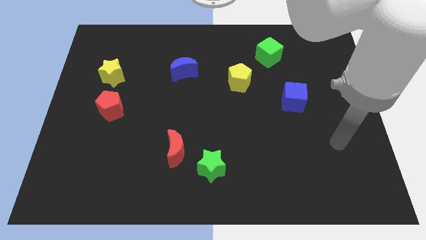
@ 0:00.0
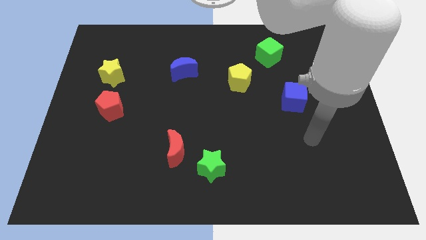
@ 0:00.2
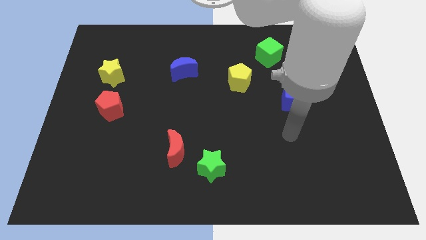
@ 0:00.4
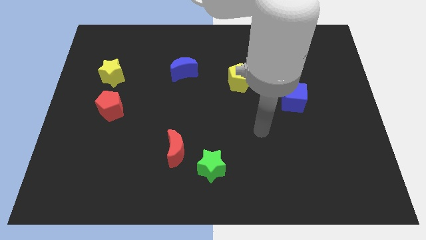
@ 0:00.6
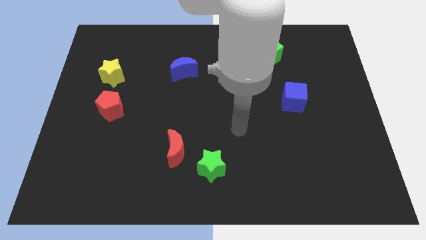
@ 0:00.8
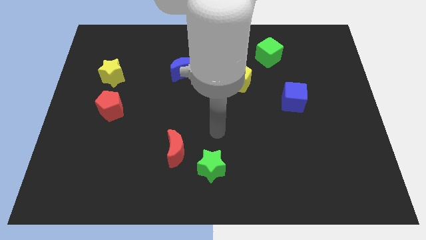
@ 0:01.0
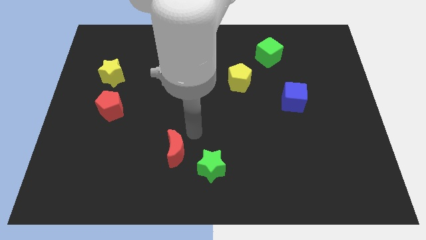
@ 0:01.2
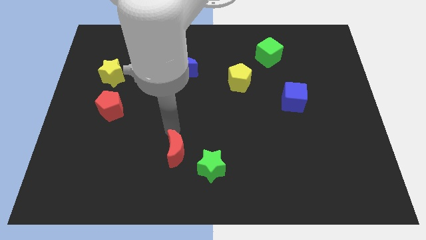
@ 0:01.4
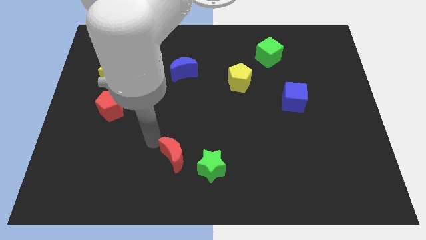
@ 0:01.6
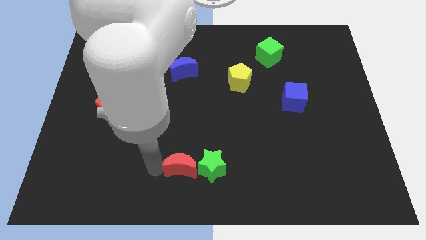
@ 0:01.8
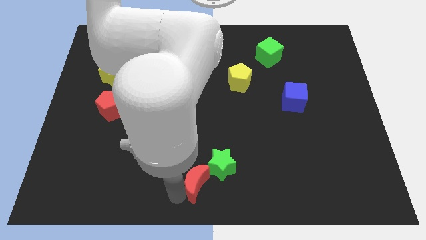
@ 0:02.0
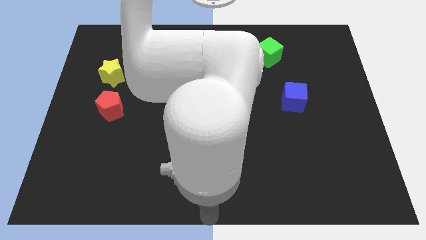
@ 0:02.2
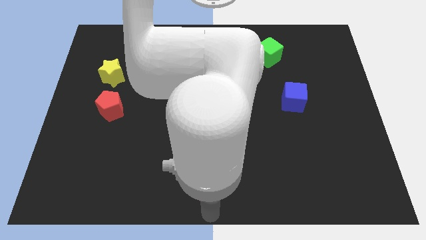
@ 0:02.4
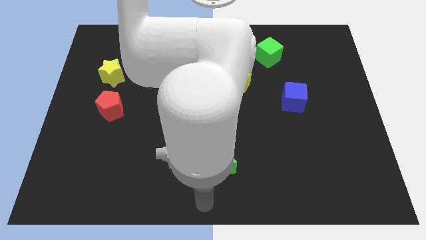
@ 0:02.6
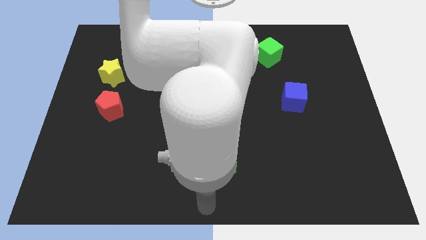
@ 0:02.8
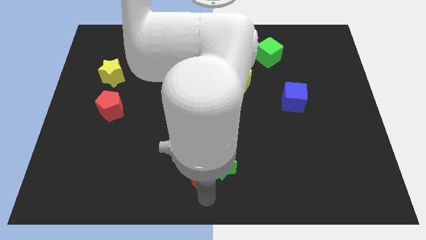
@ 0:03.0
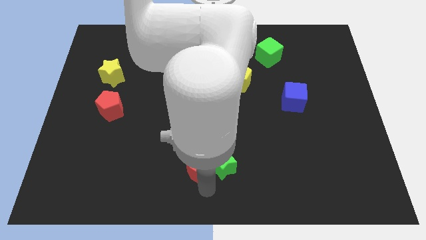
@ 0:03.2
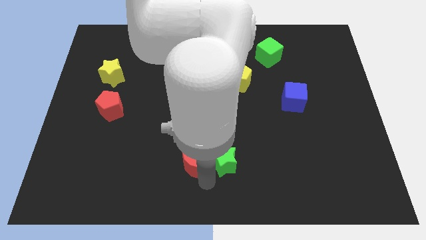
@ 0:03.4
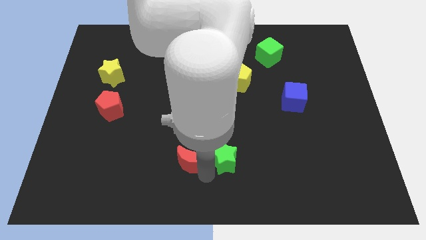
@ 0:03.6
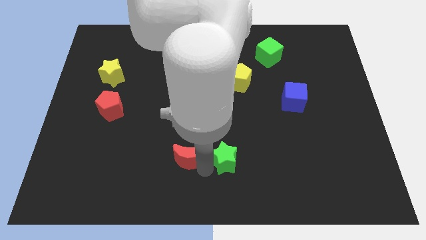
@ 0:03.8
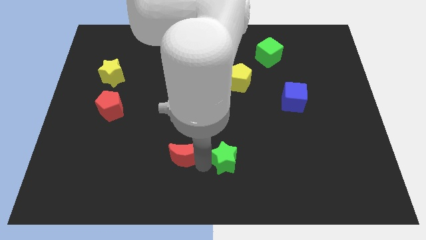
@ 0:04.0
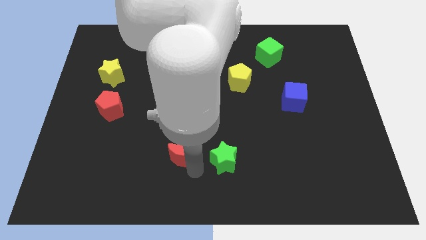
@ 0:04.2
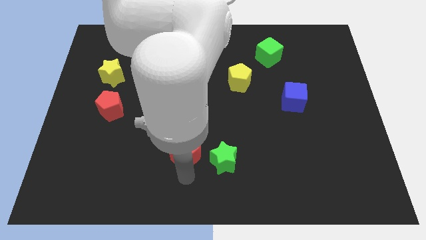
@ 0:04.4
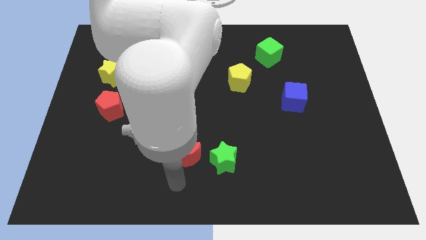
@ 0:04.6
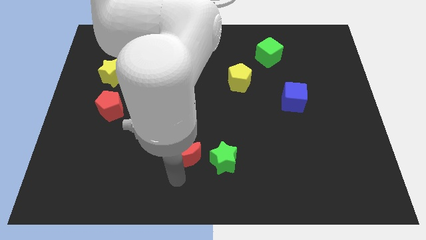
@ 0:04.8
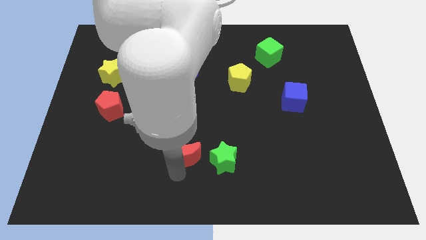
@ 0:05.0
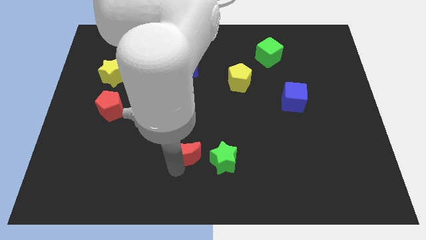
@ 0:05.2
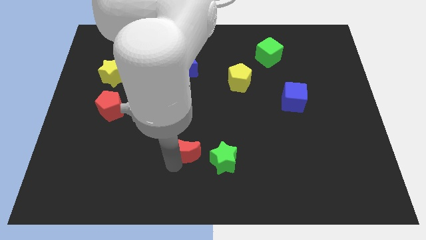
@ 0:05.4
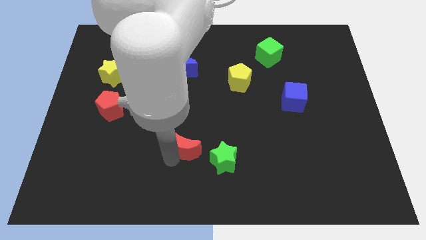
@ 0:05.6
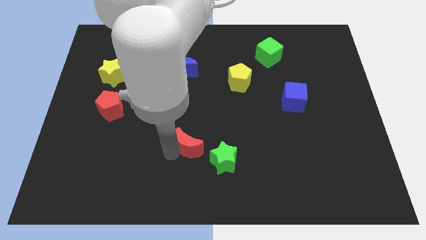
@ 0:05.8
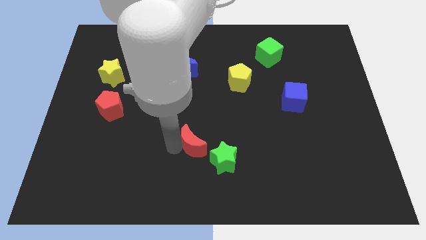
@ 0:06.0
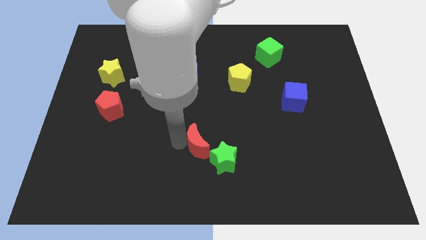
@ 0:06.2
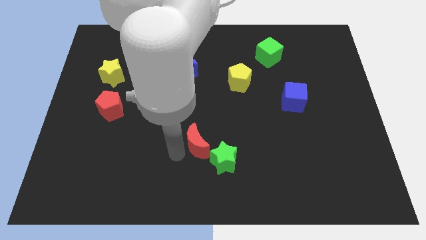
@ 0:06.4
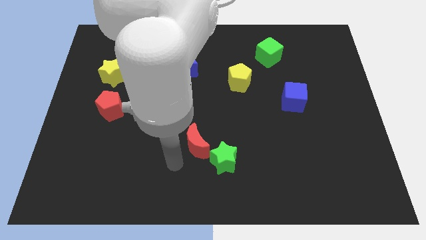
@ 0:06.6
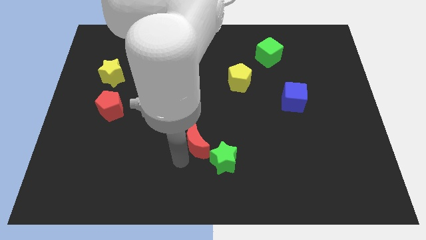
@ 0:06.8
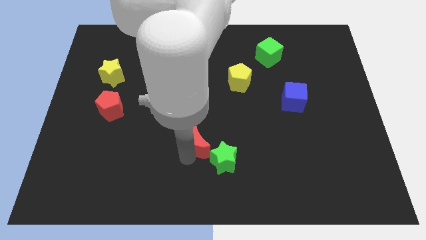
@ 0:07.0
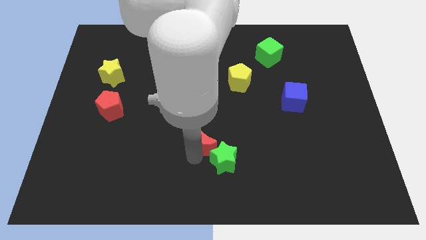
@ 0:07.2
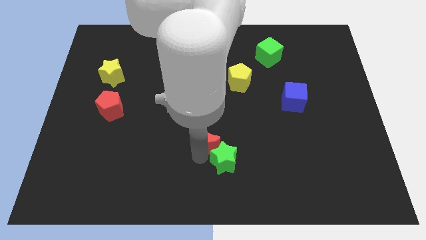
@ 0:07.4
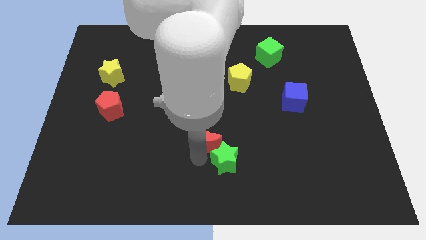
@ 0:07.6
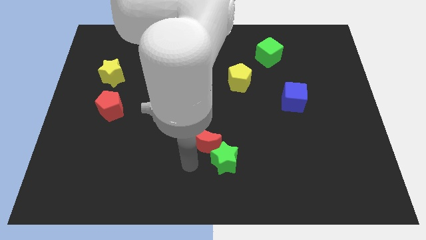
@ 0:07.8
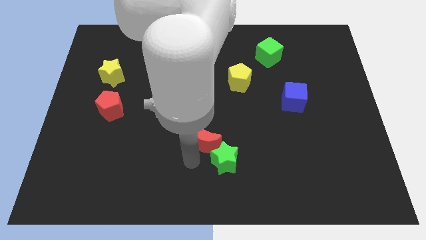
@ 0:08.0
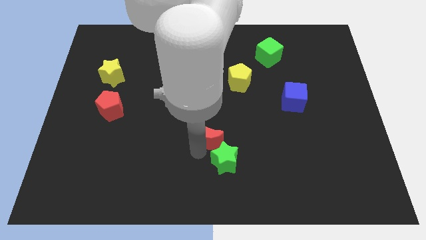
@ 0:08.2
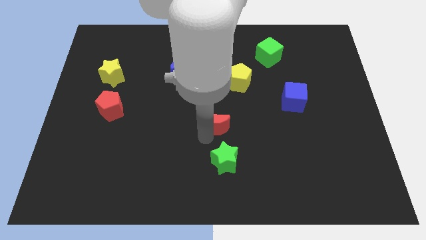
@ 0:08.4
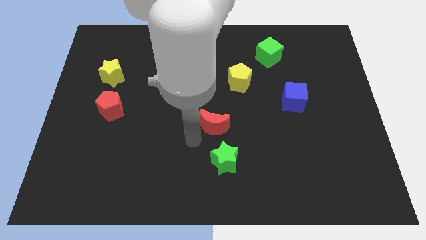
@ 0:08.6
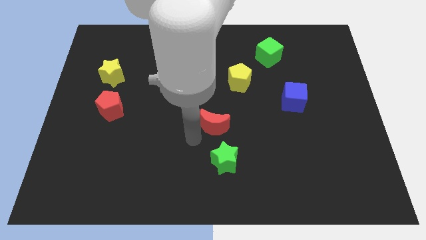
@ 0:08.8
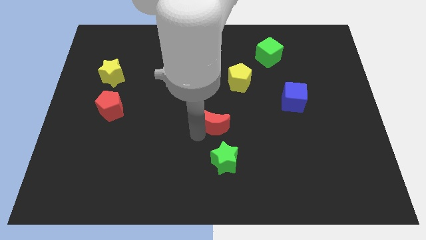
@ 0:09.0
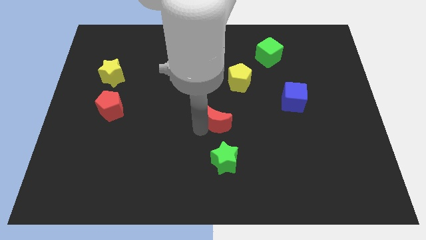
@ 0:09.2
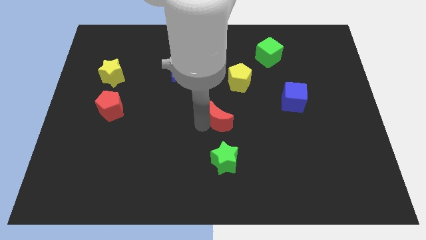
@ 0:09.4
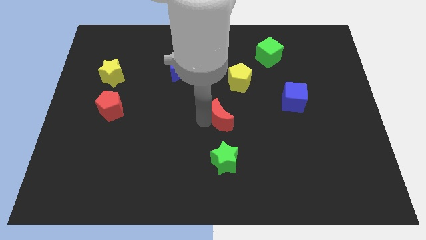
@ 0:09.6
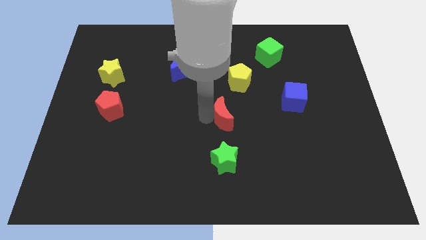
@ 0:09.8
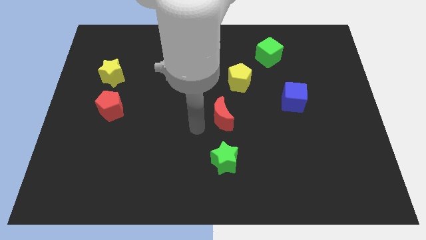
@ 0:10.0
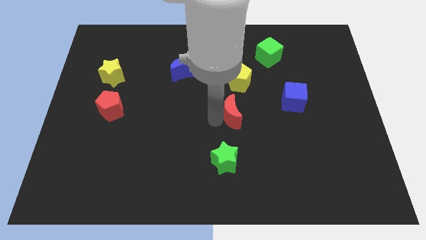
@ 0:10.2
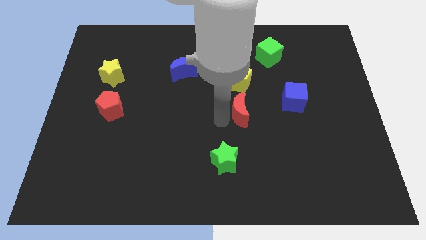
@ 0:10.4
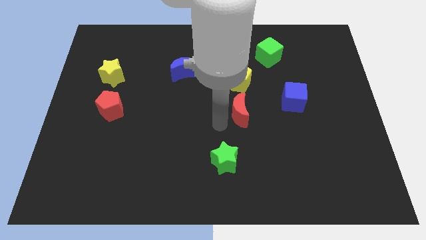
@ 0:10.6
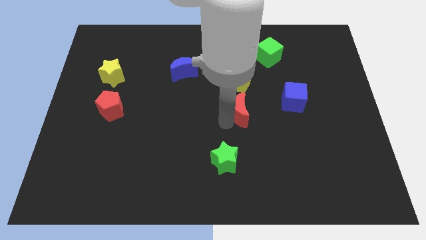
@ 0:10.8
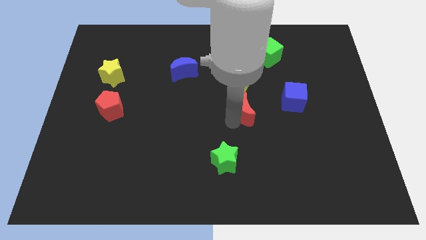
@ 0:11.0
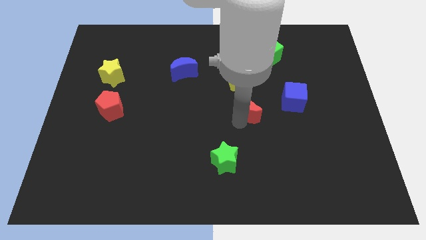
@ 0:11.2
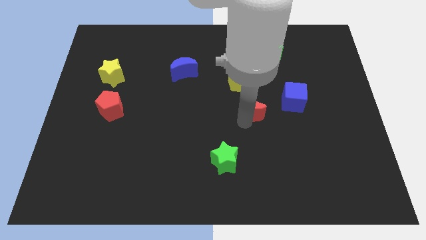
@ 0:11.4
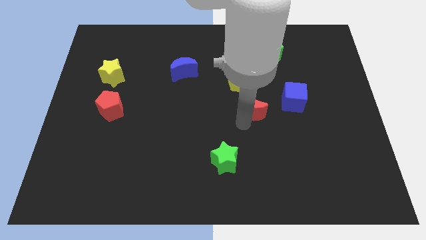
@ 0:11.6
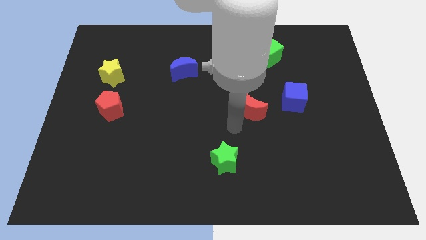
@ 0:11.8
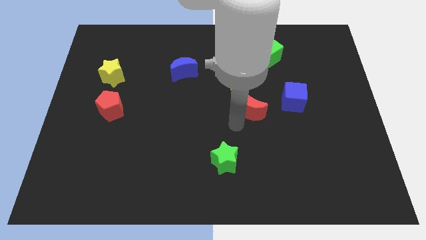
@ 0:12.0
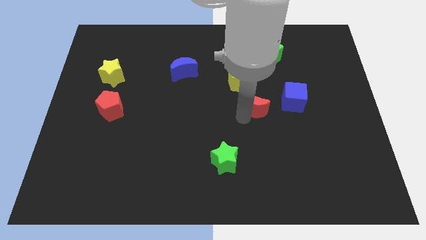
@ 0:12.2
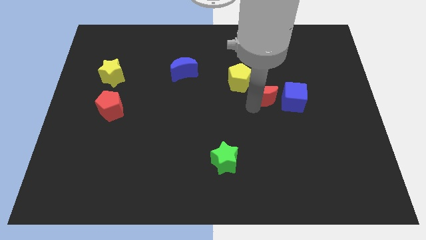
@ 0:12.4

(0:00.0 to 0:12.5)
push the red moon to the bottom side of the green cube

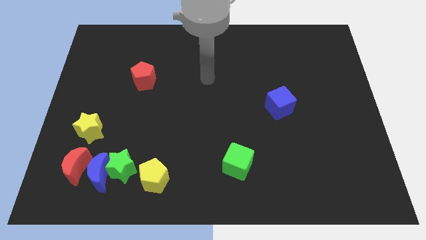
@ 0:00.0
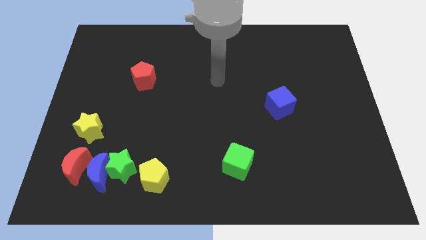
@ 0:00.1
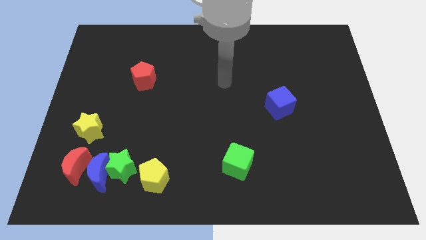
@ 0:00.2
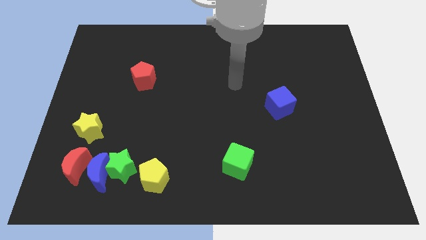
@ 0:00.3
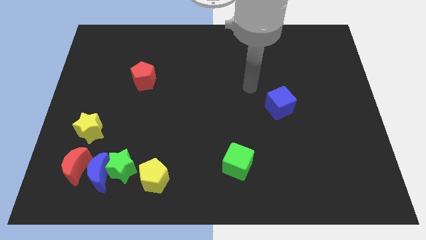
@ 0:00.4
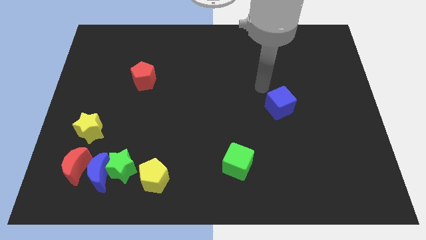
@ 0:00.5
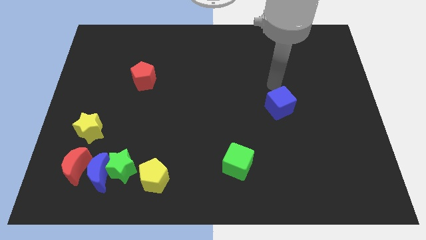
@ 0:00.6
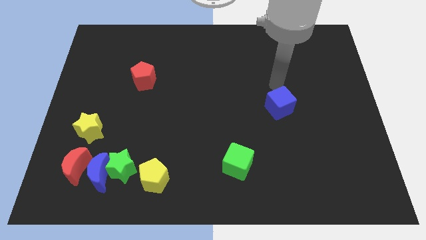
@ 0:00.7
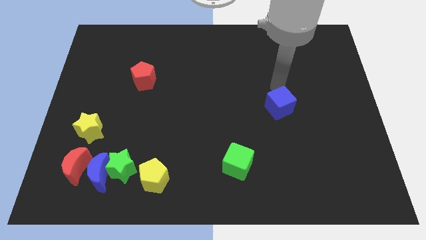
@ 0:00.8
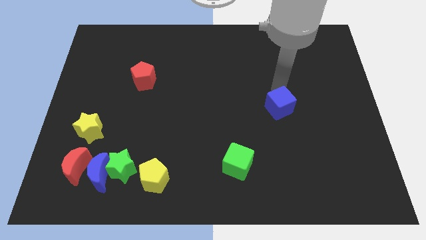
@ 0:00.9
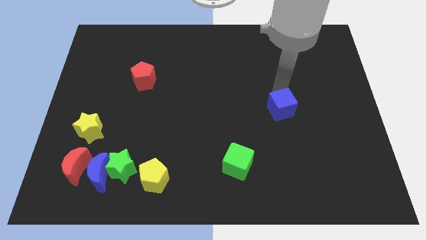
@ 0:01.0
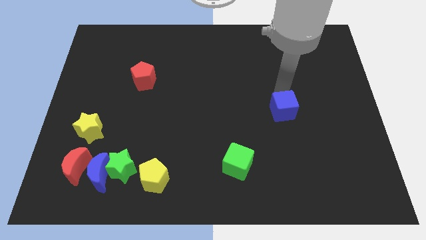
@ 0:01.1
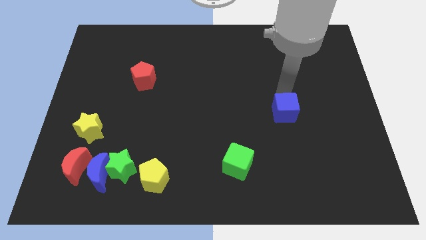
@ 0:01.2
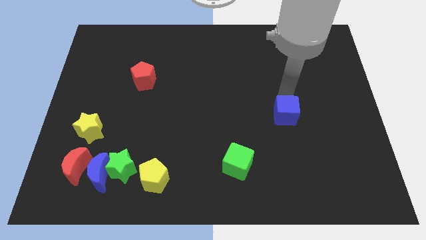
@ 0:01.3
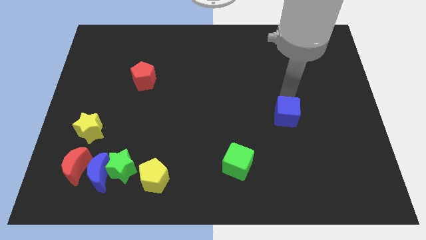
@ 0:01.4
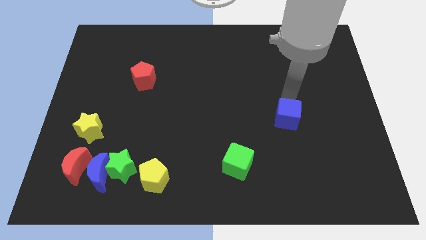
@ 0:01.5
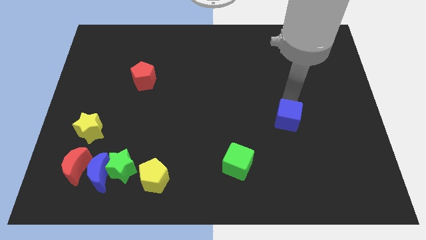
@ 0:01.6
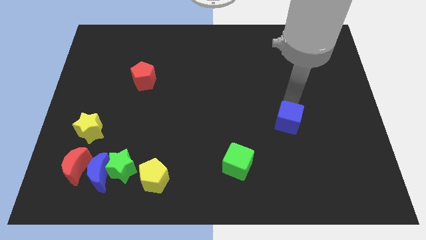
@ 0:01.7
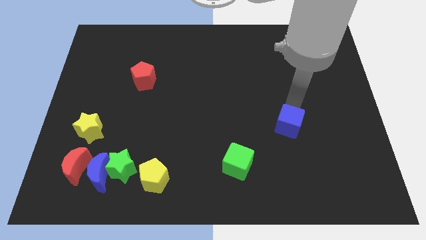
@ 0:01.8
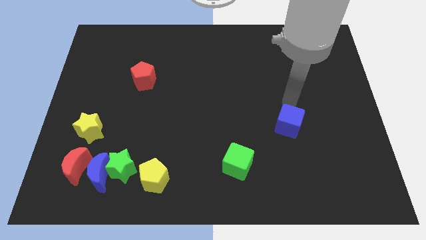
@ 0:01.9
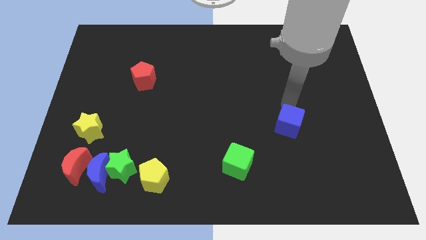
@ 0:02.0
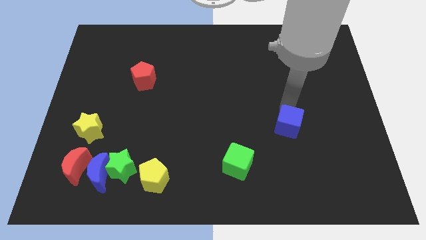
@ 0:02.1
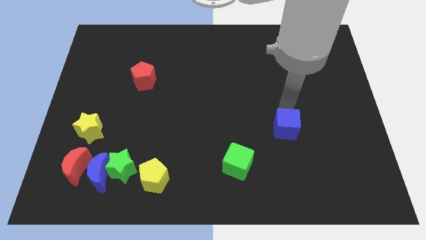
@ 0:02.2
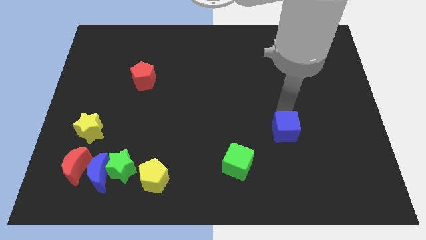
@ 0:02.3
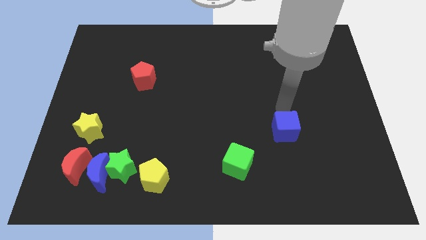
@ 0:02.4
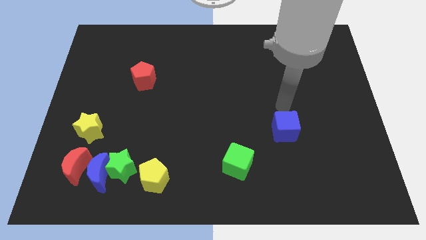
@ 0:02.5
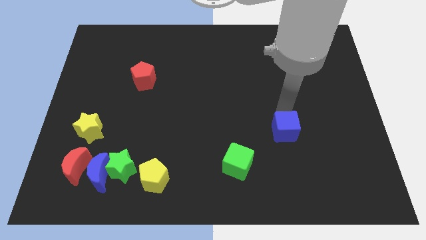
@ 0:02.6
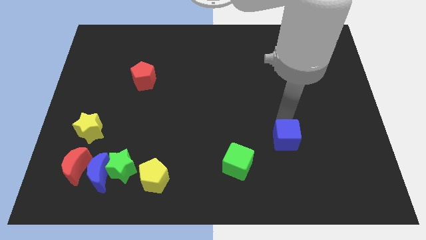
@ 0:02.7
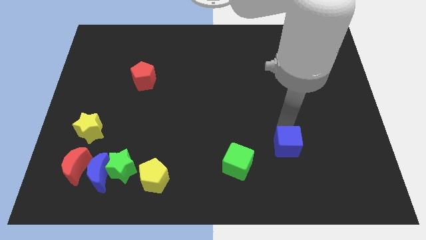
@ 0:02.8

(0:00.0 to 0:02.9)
move the blue cube right of the green cube
